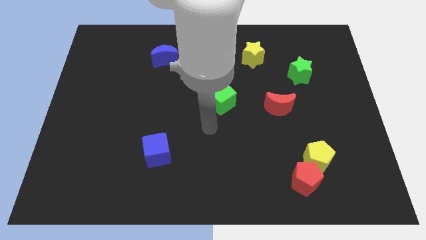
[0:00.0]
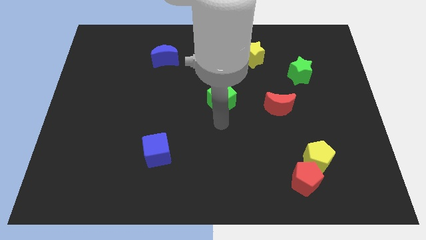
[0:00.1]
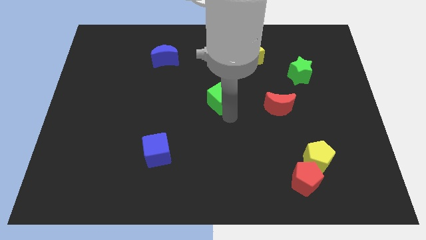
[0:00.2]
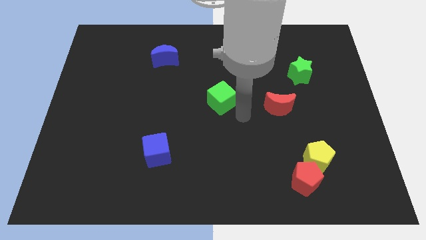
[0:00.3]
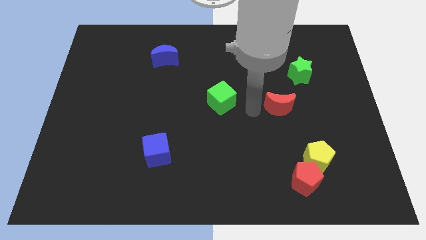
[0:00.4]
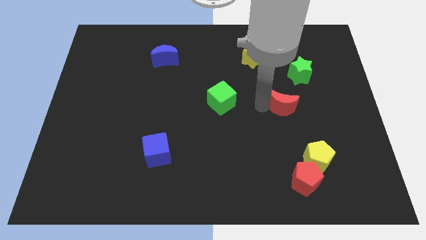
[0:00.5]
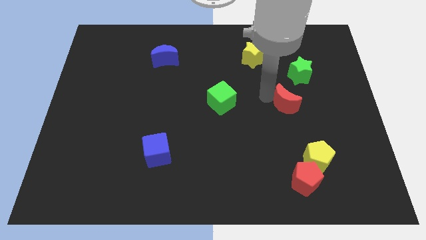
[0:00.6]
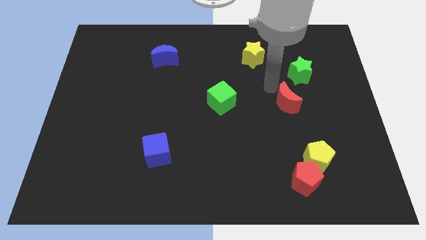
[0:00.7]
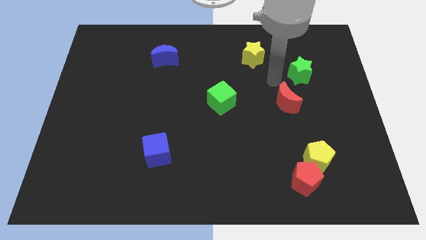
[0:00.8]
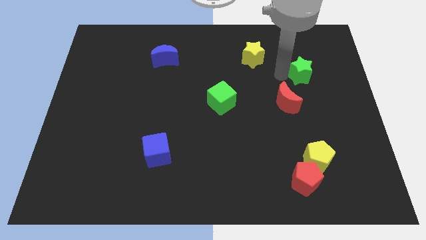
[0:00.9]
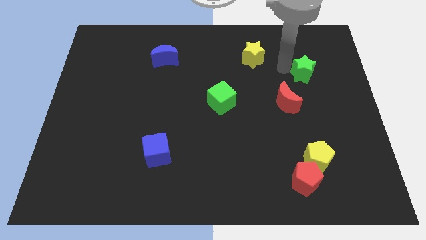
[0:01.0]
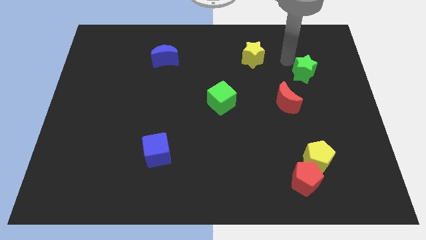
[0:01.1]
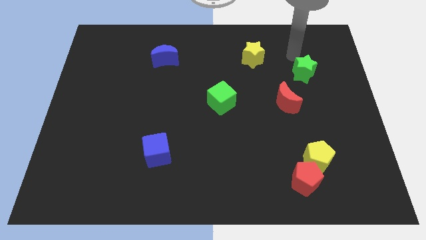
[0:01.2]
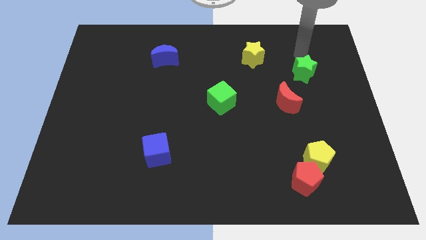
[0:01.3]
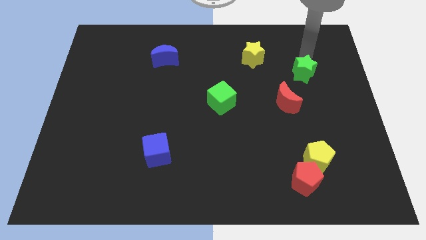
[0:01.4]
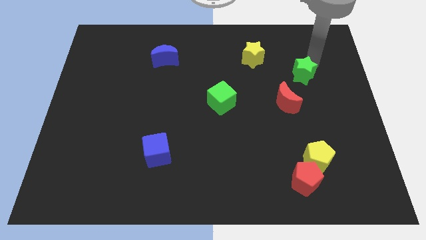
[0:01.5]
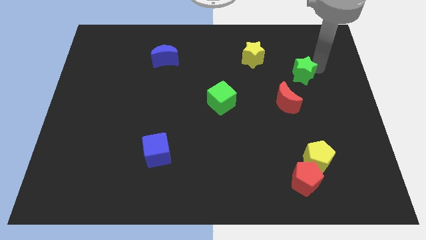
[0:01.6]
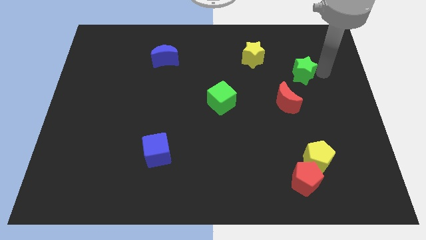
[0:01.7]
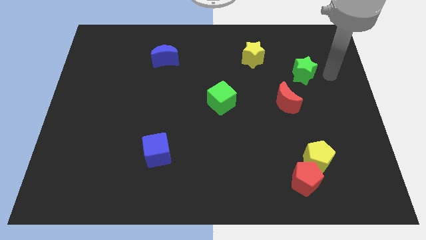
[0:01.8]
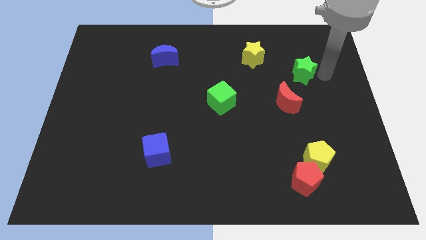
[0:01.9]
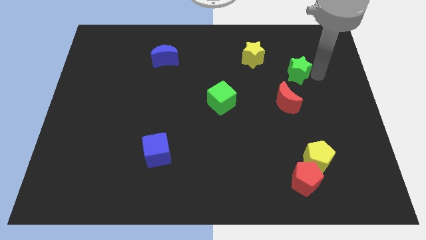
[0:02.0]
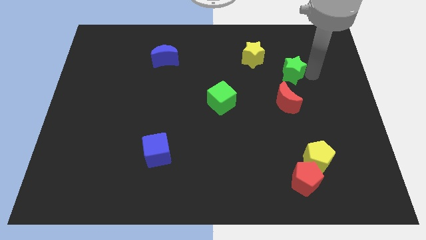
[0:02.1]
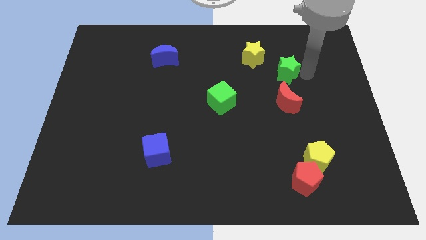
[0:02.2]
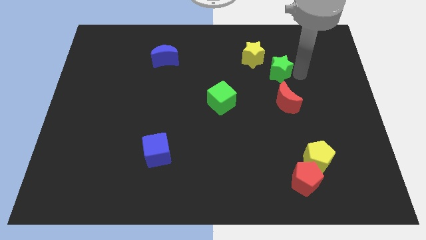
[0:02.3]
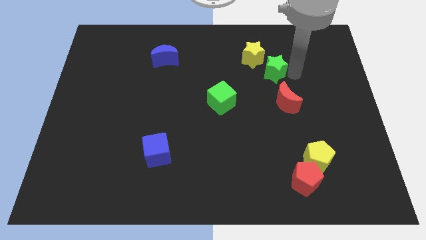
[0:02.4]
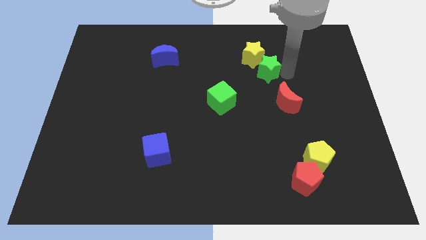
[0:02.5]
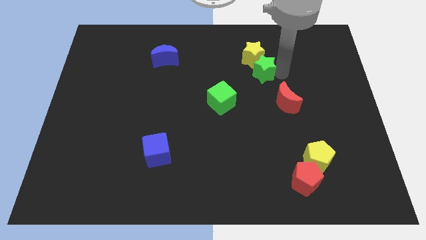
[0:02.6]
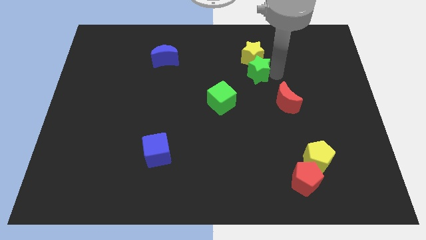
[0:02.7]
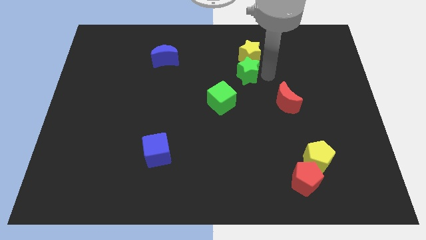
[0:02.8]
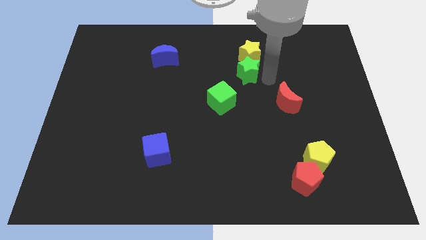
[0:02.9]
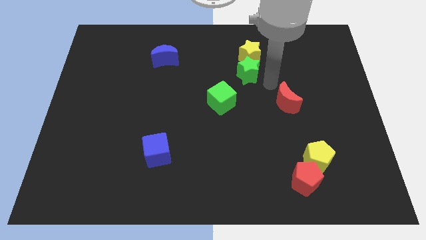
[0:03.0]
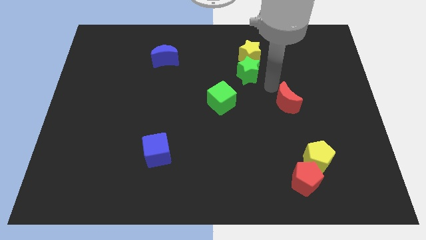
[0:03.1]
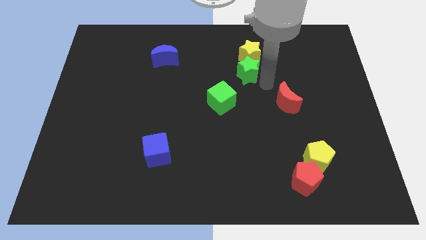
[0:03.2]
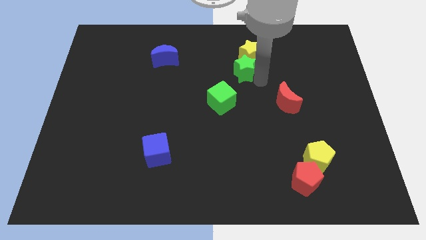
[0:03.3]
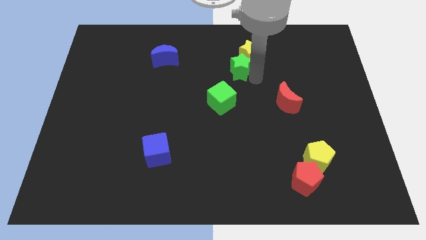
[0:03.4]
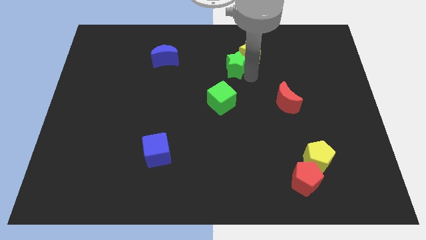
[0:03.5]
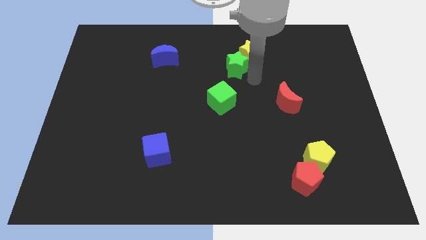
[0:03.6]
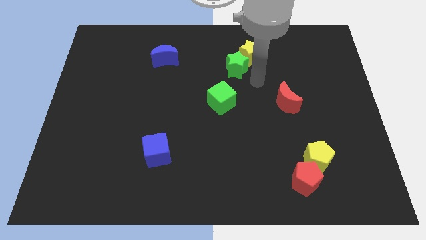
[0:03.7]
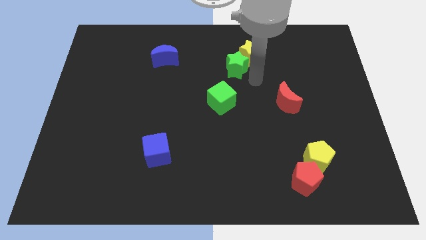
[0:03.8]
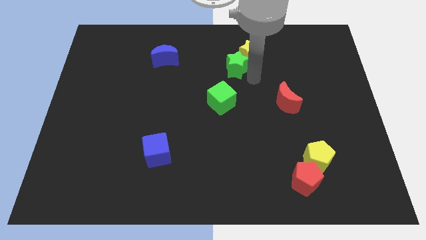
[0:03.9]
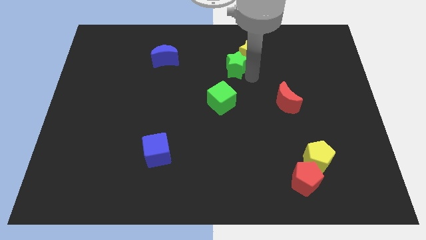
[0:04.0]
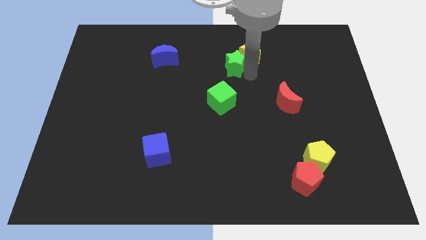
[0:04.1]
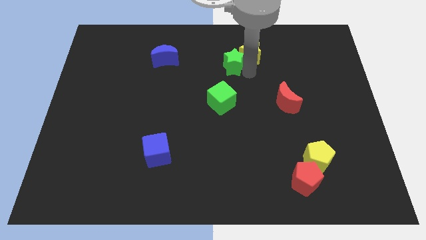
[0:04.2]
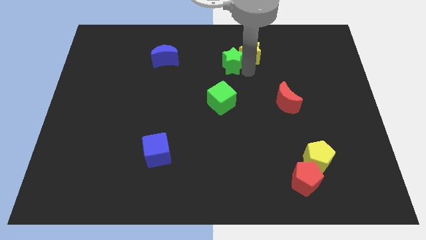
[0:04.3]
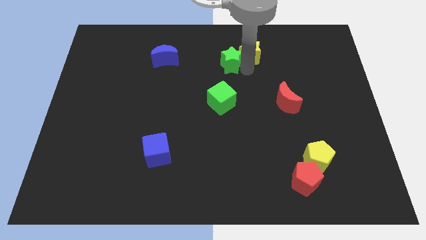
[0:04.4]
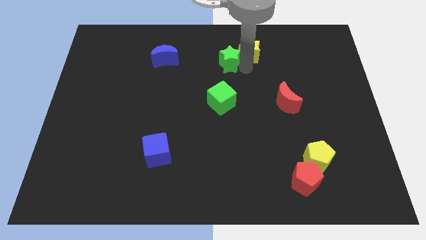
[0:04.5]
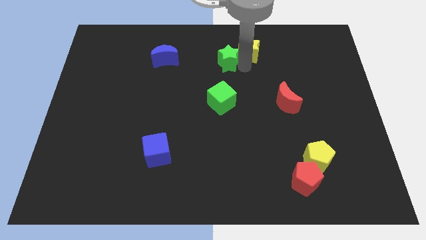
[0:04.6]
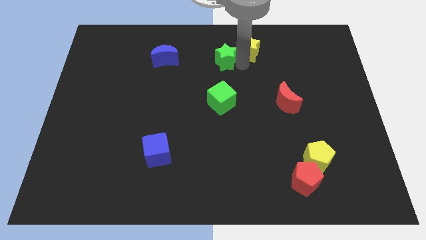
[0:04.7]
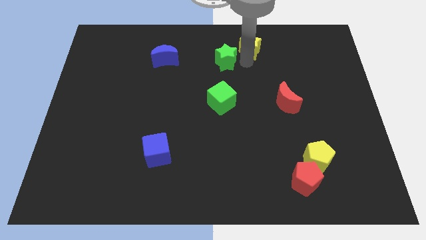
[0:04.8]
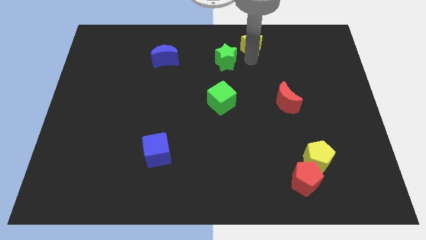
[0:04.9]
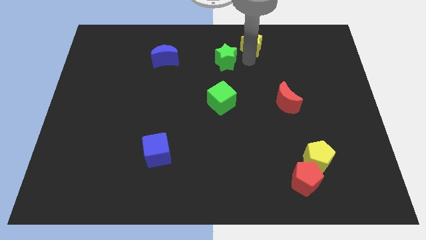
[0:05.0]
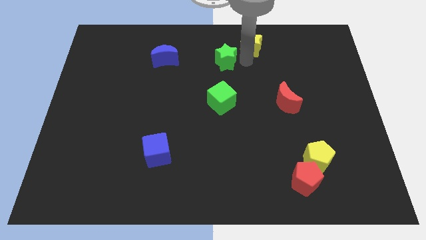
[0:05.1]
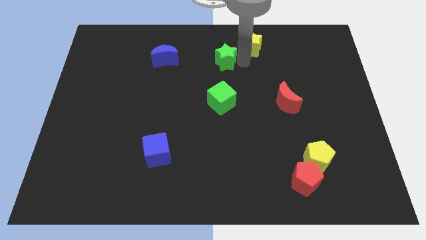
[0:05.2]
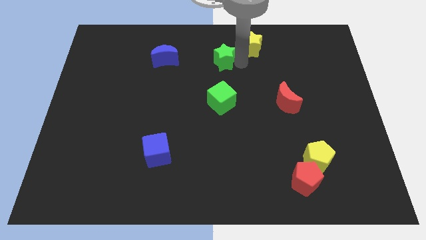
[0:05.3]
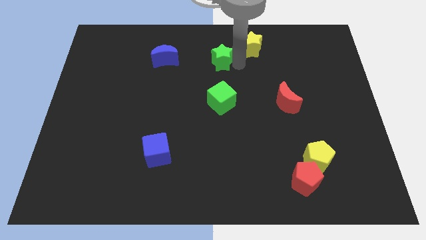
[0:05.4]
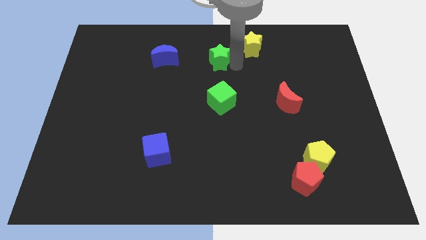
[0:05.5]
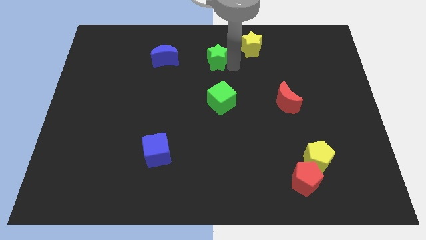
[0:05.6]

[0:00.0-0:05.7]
slide the green star left

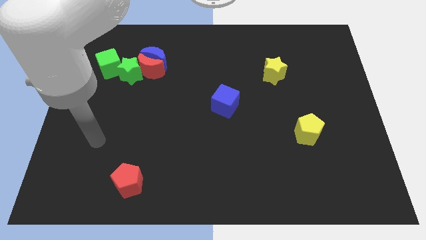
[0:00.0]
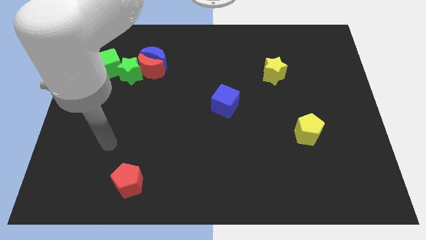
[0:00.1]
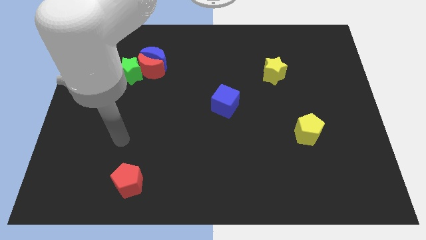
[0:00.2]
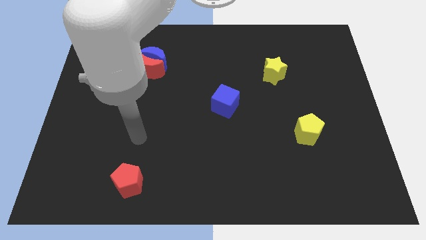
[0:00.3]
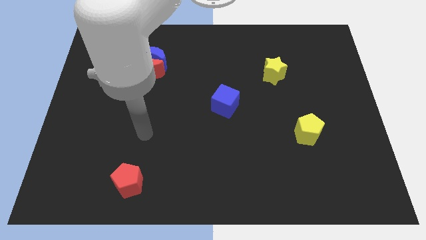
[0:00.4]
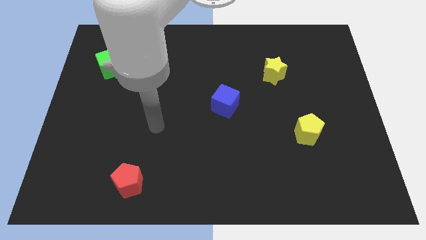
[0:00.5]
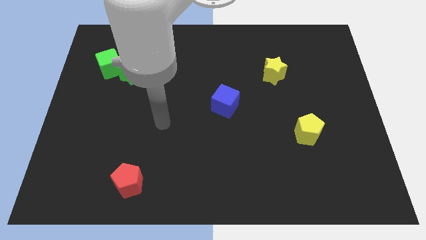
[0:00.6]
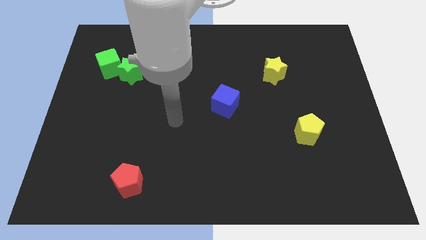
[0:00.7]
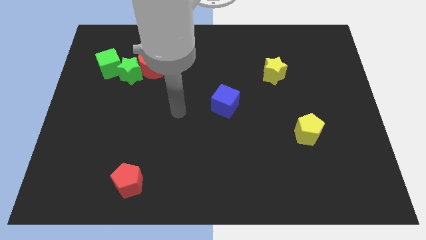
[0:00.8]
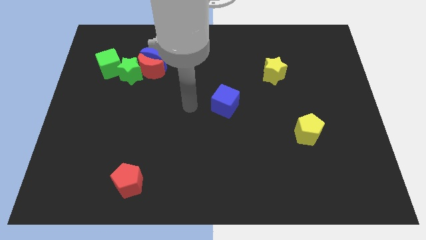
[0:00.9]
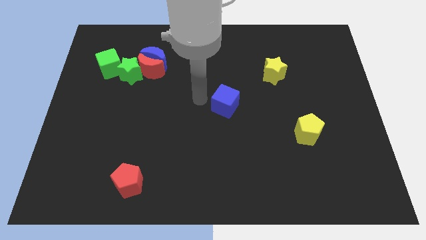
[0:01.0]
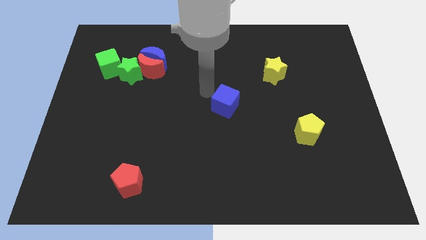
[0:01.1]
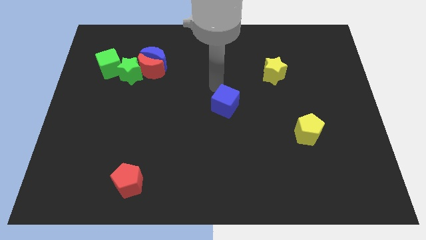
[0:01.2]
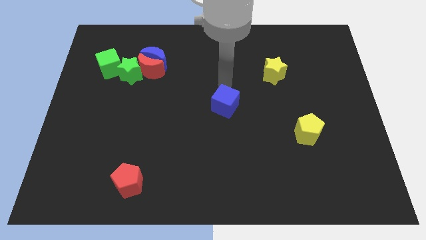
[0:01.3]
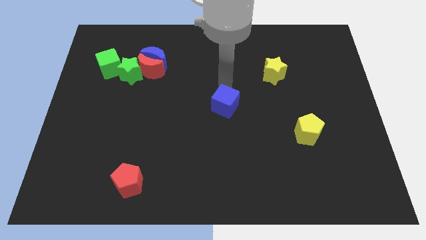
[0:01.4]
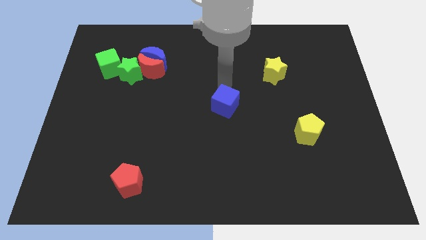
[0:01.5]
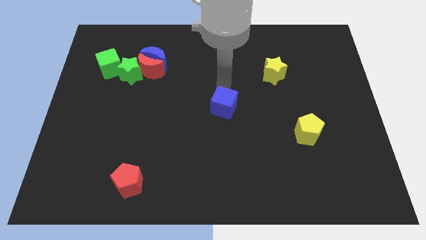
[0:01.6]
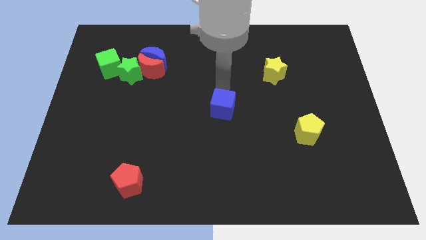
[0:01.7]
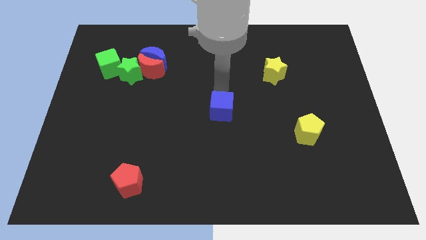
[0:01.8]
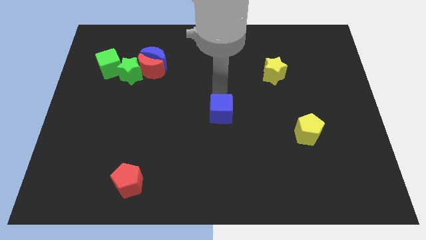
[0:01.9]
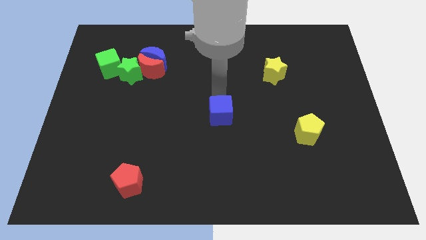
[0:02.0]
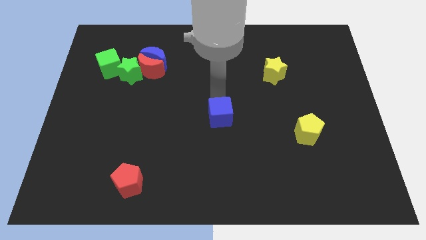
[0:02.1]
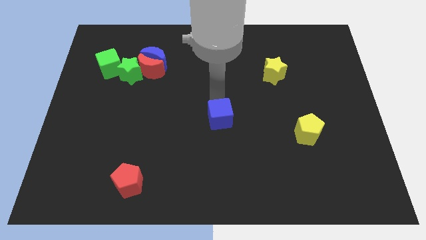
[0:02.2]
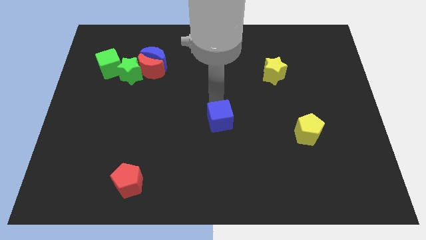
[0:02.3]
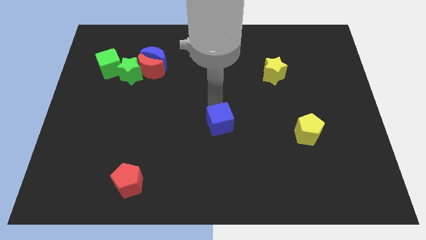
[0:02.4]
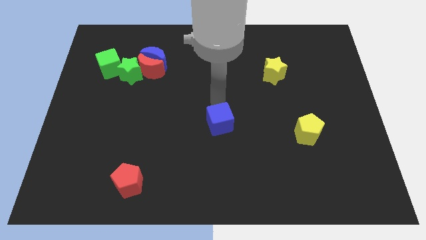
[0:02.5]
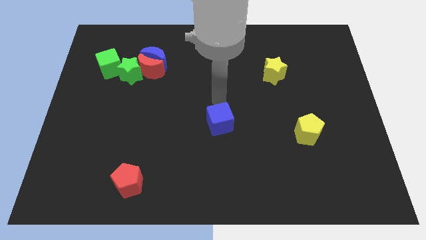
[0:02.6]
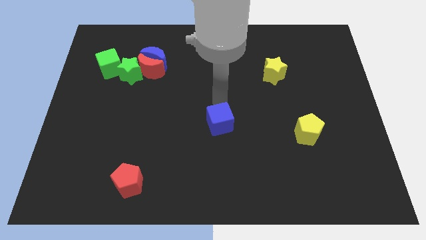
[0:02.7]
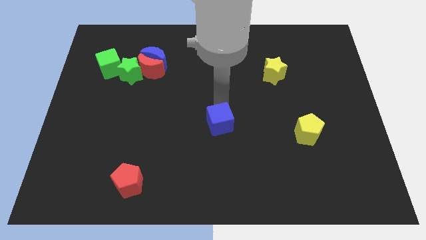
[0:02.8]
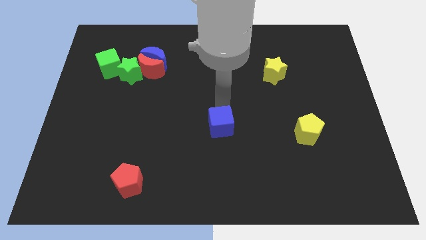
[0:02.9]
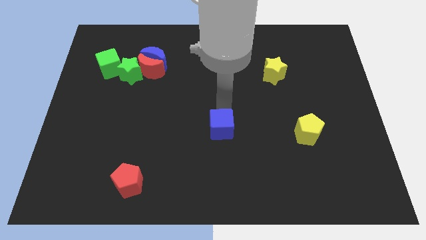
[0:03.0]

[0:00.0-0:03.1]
move the blue cube a bit downwards
